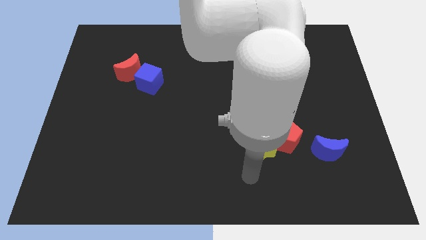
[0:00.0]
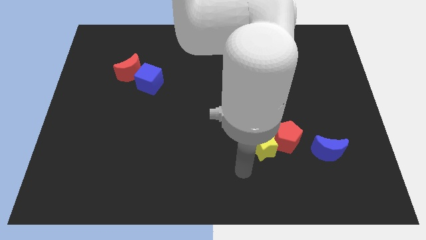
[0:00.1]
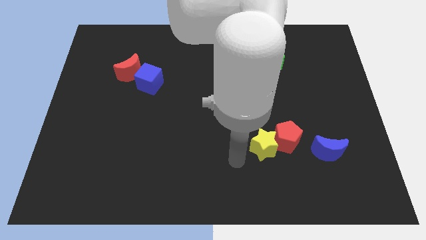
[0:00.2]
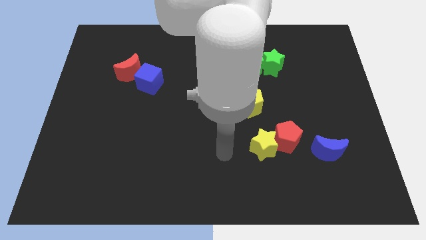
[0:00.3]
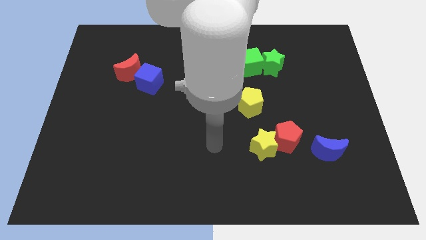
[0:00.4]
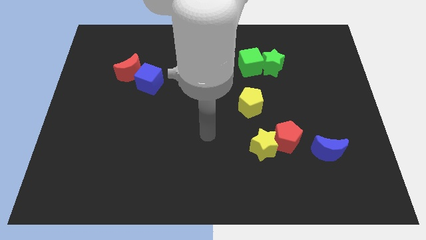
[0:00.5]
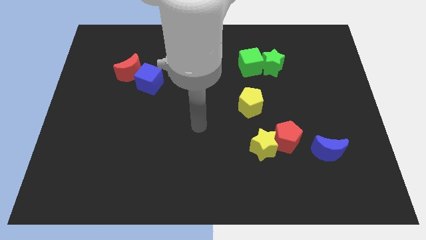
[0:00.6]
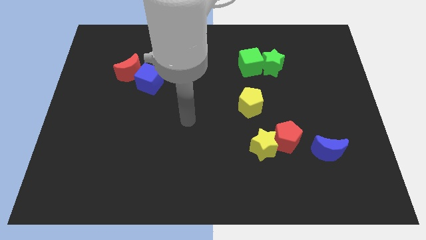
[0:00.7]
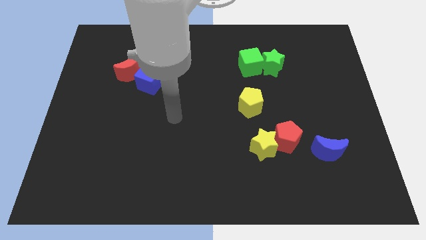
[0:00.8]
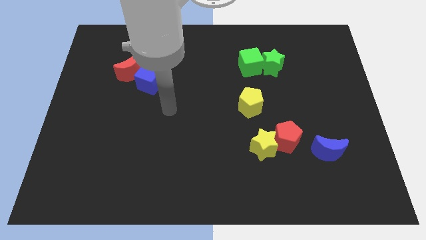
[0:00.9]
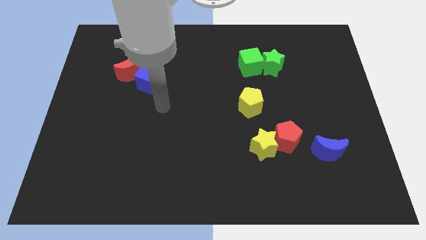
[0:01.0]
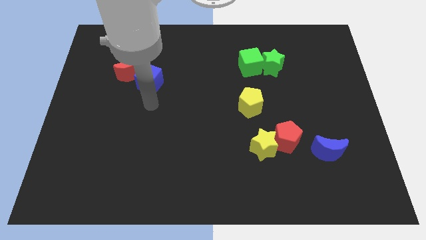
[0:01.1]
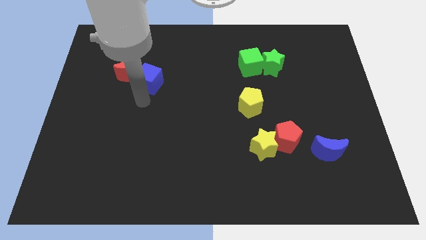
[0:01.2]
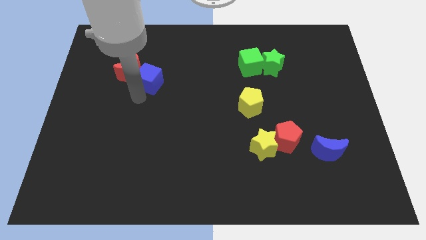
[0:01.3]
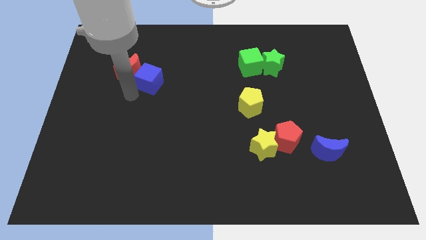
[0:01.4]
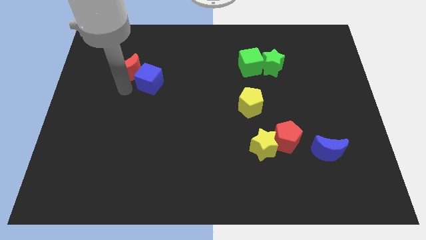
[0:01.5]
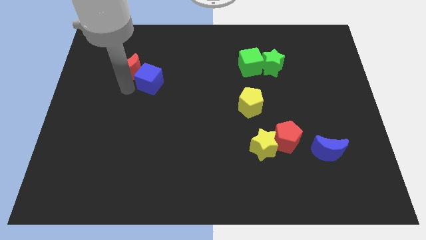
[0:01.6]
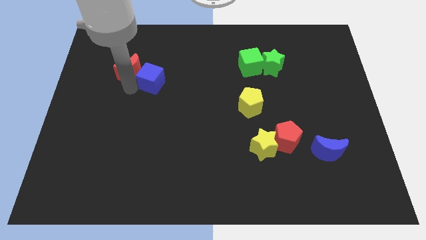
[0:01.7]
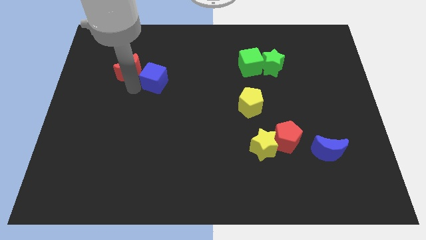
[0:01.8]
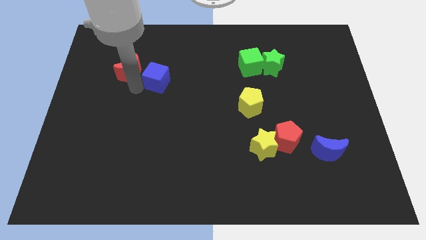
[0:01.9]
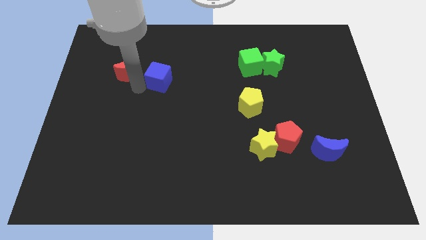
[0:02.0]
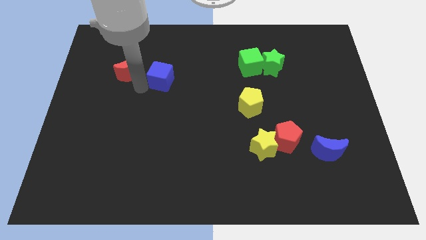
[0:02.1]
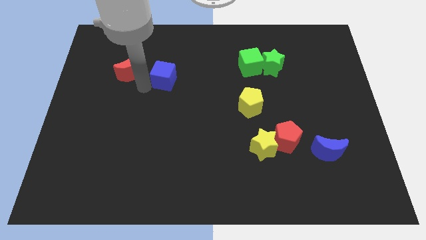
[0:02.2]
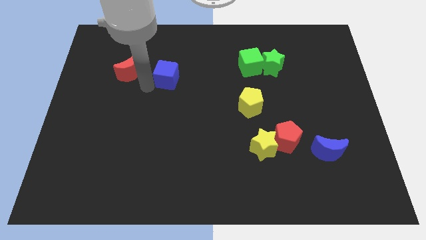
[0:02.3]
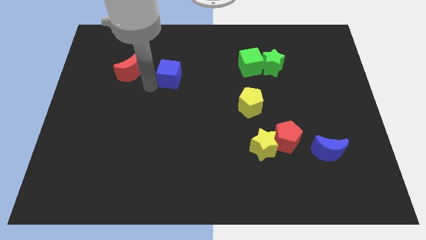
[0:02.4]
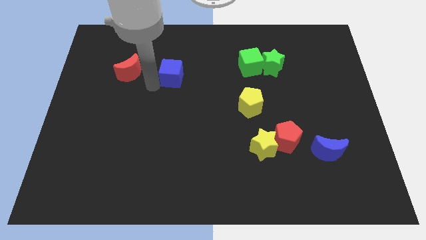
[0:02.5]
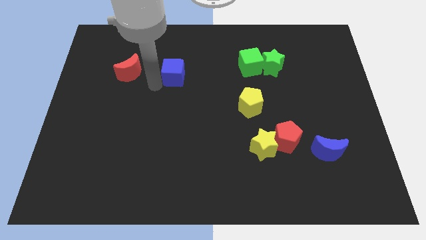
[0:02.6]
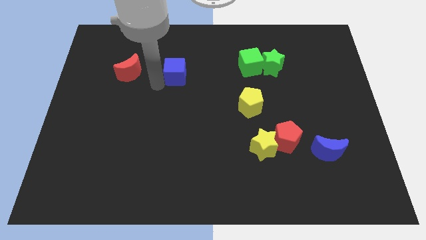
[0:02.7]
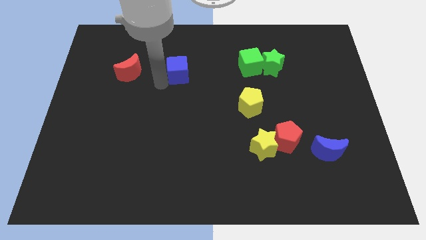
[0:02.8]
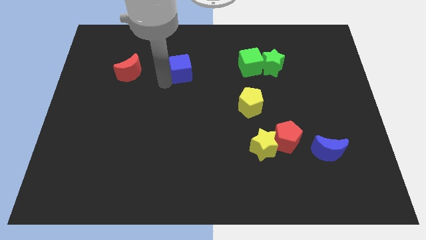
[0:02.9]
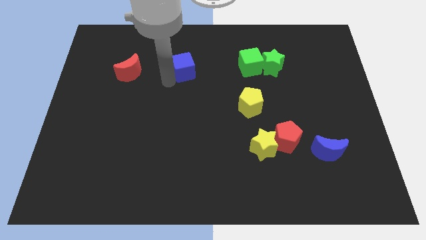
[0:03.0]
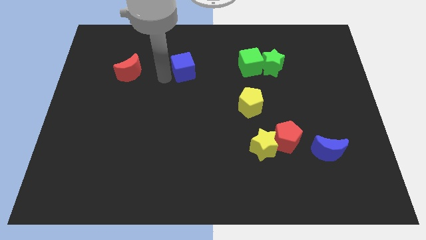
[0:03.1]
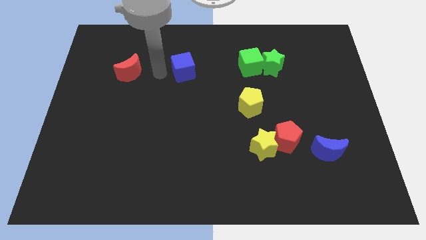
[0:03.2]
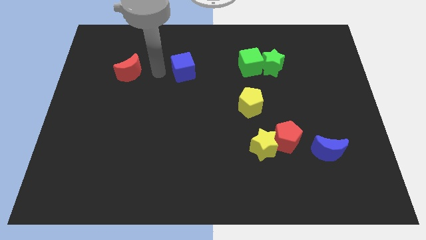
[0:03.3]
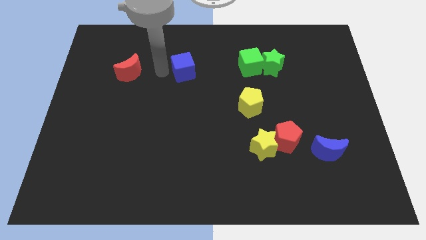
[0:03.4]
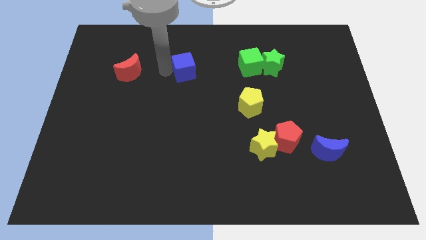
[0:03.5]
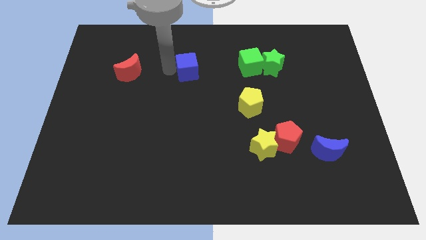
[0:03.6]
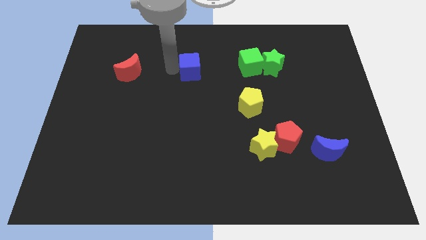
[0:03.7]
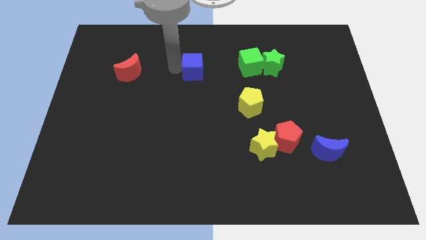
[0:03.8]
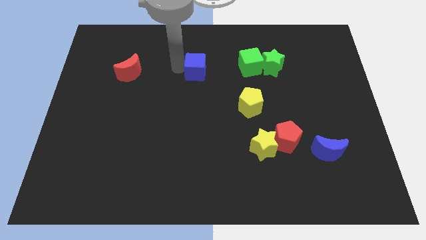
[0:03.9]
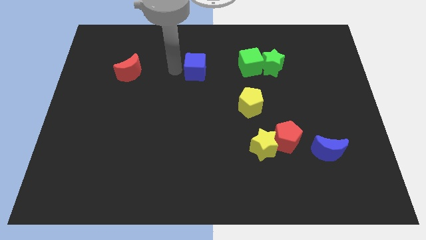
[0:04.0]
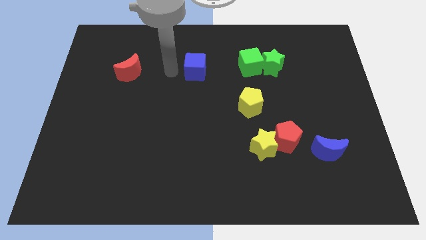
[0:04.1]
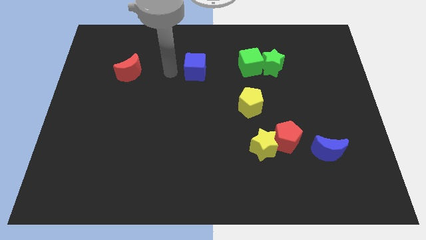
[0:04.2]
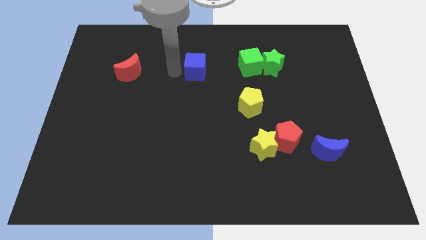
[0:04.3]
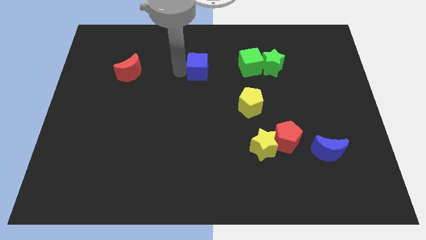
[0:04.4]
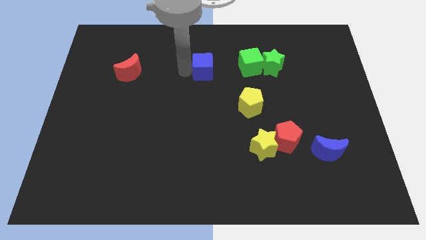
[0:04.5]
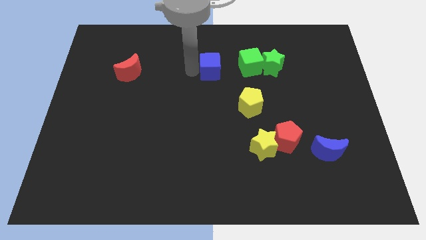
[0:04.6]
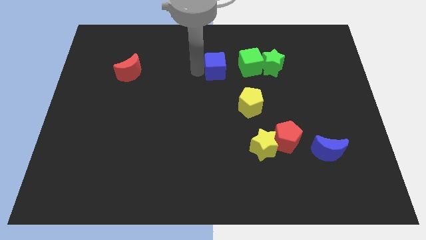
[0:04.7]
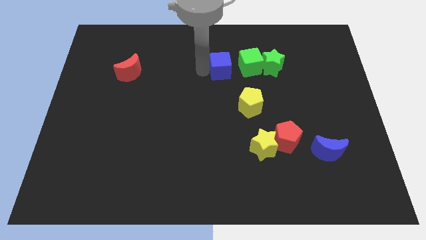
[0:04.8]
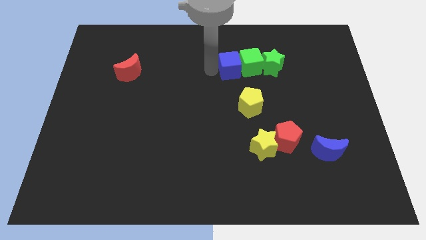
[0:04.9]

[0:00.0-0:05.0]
put the blue cube towards the green cube

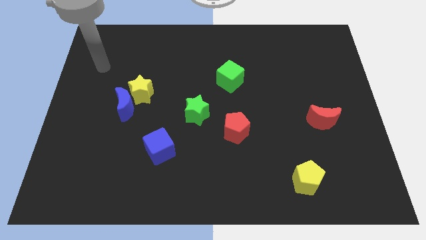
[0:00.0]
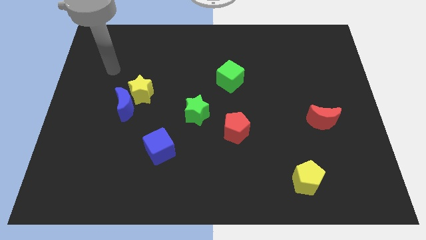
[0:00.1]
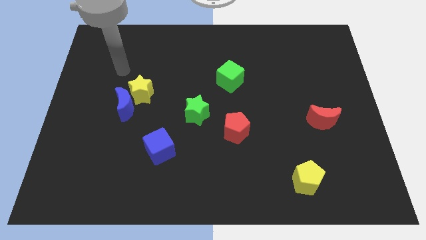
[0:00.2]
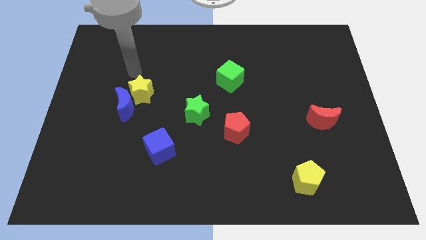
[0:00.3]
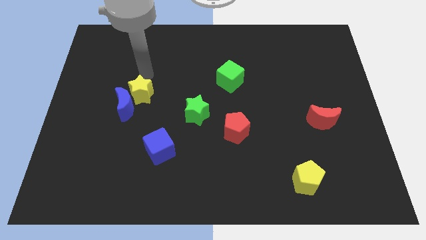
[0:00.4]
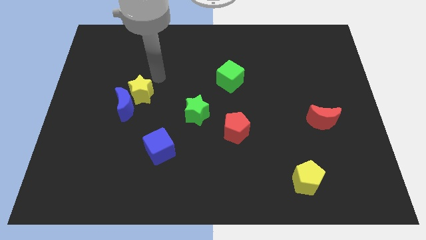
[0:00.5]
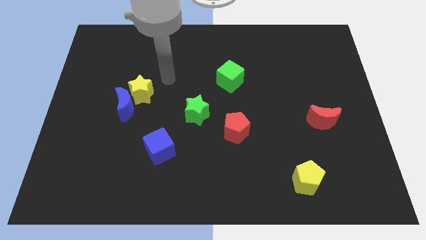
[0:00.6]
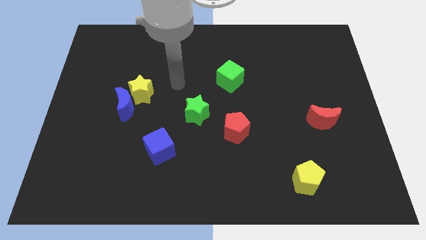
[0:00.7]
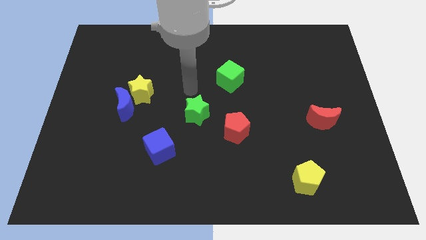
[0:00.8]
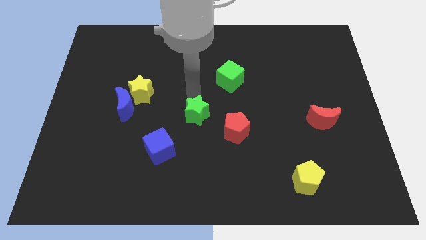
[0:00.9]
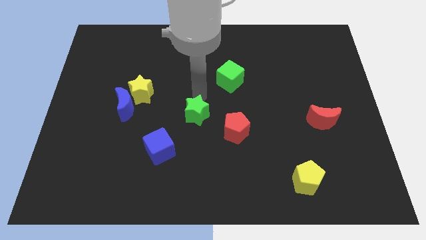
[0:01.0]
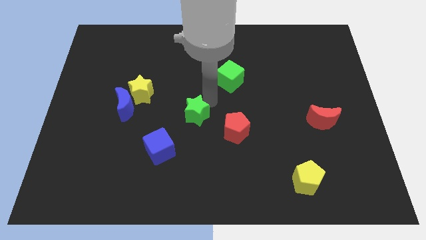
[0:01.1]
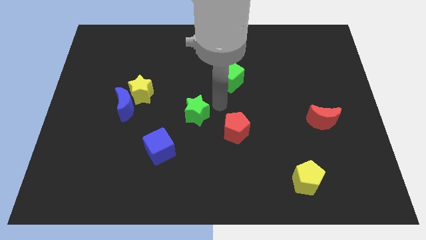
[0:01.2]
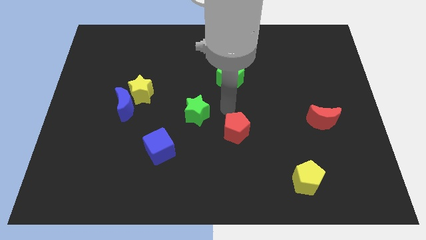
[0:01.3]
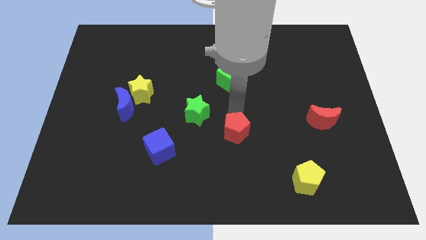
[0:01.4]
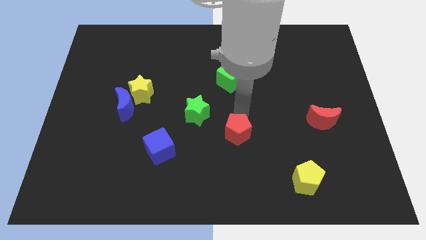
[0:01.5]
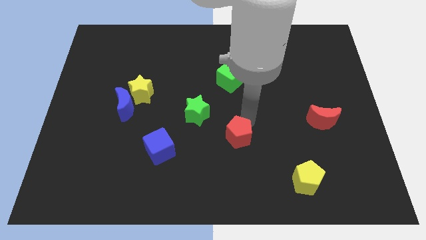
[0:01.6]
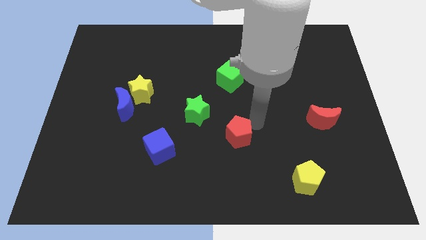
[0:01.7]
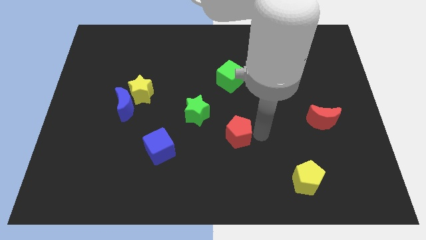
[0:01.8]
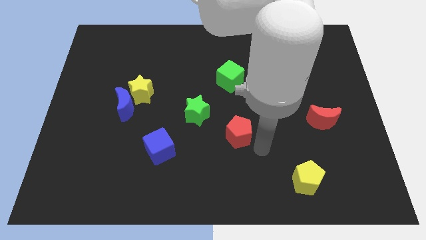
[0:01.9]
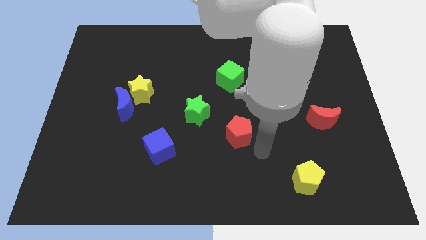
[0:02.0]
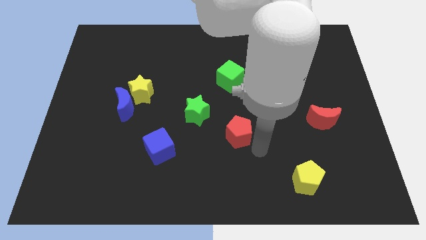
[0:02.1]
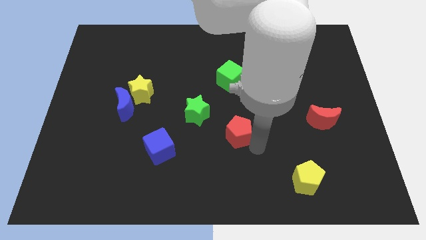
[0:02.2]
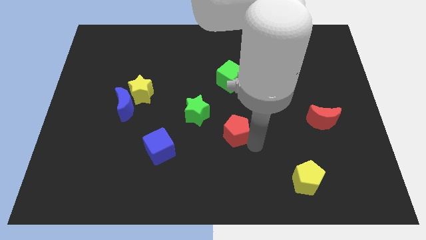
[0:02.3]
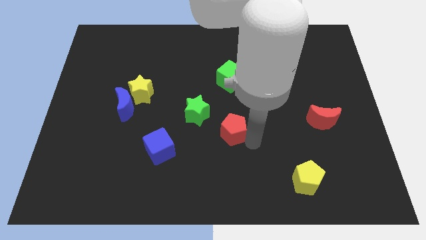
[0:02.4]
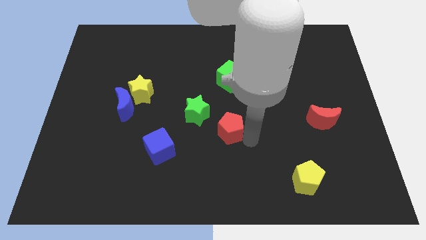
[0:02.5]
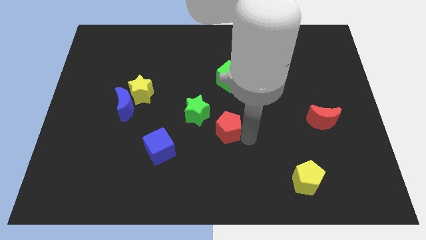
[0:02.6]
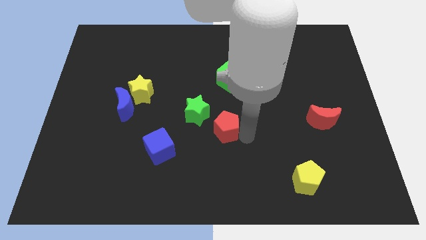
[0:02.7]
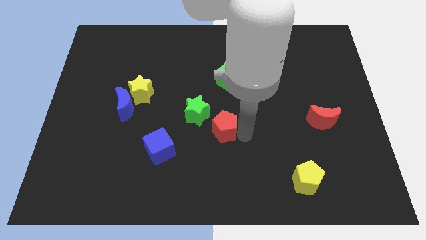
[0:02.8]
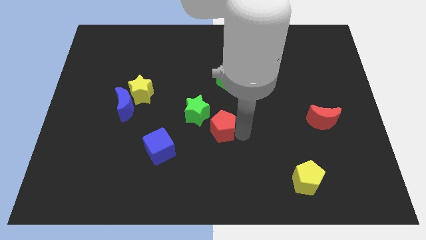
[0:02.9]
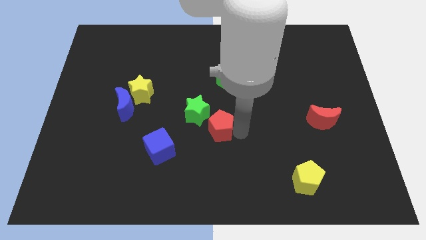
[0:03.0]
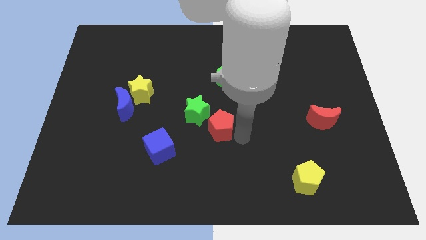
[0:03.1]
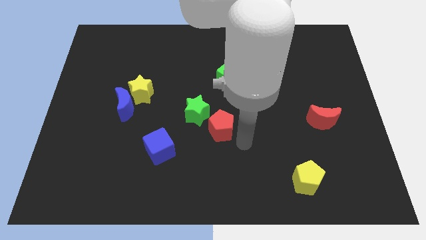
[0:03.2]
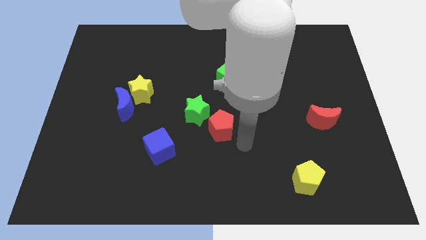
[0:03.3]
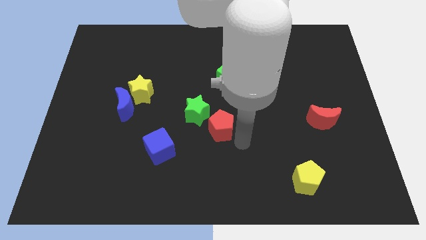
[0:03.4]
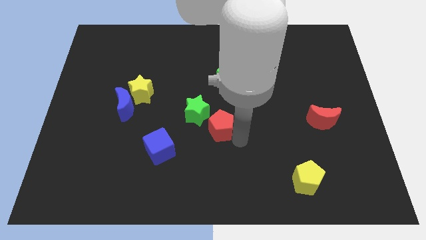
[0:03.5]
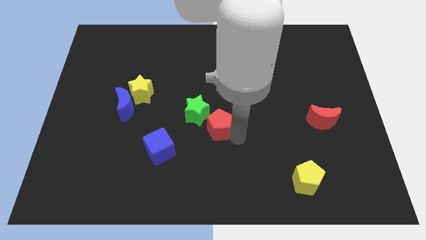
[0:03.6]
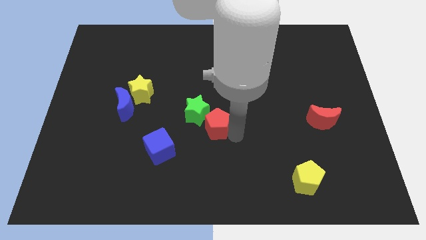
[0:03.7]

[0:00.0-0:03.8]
slide the red pentagon next to the green star
